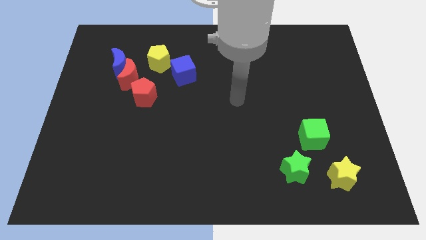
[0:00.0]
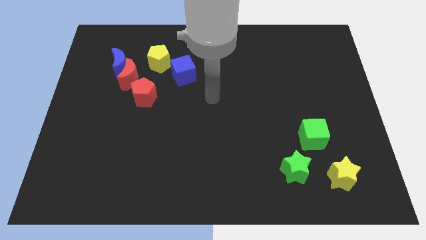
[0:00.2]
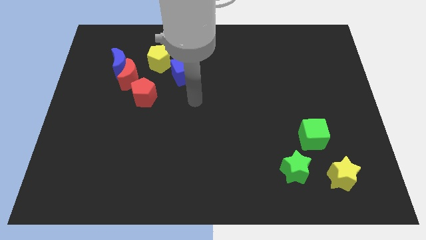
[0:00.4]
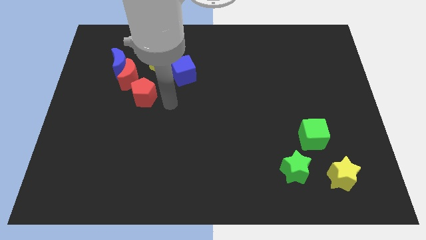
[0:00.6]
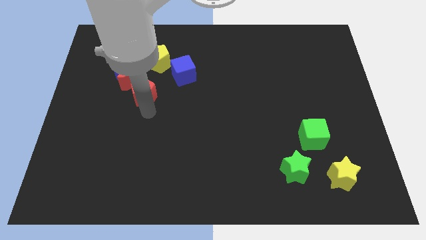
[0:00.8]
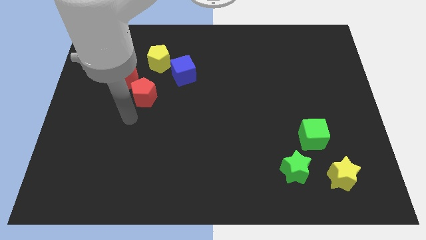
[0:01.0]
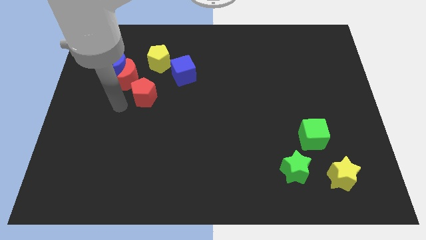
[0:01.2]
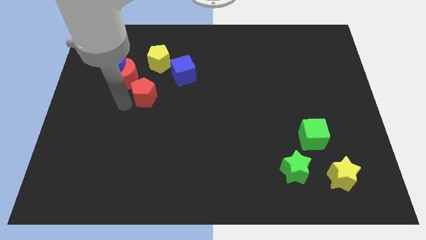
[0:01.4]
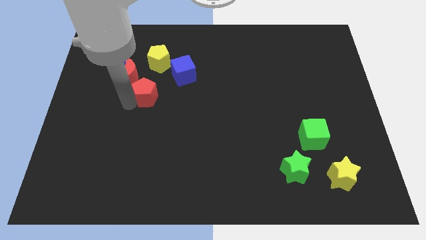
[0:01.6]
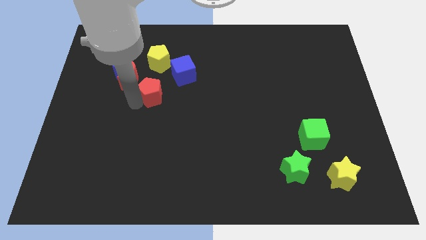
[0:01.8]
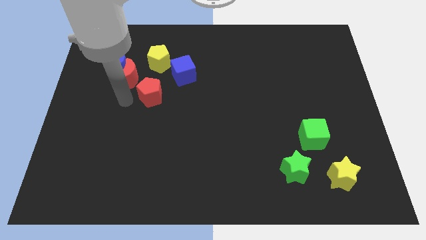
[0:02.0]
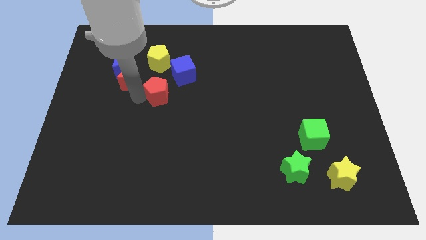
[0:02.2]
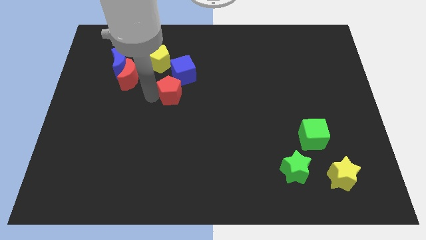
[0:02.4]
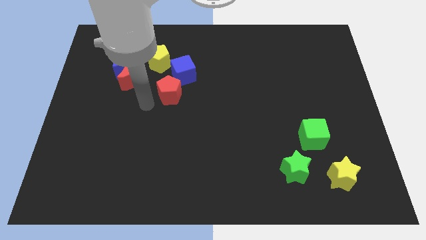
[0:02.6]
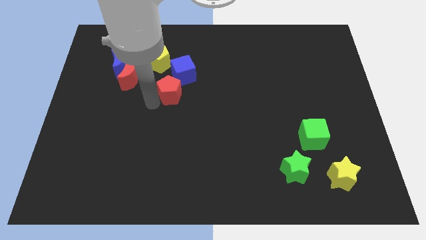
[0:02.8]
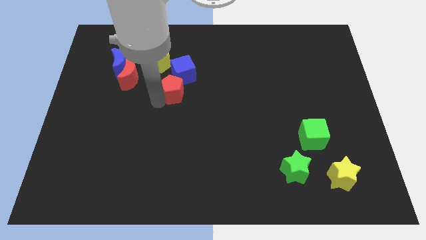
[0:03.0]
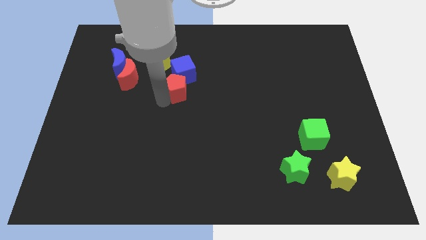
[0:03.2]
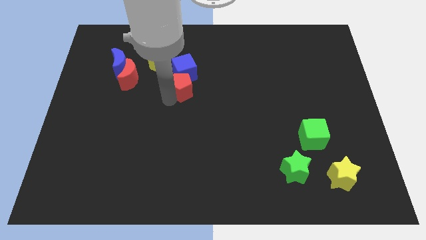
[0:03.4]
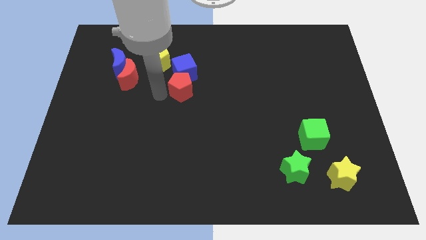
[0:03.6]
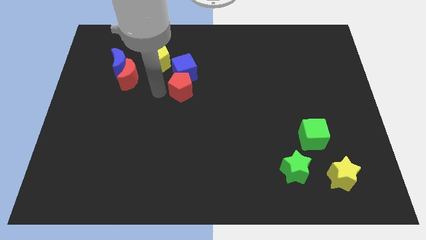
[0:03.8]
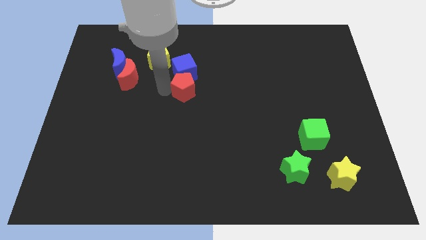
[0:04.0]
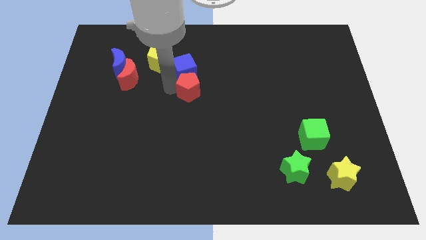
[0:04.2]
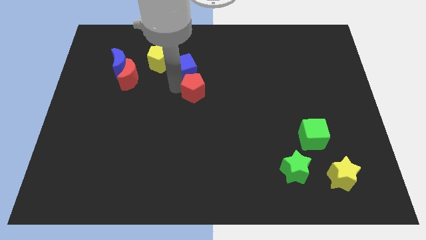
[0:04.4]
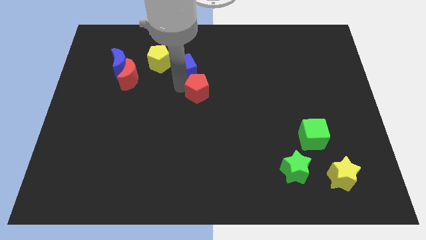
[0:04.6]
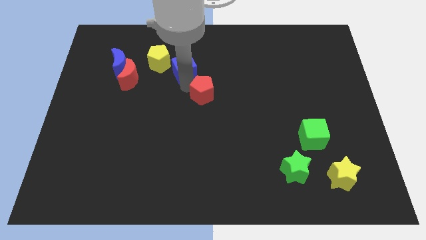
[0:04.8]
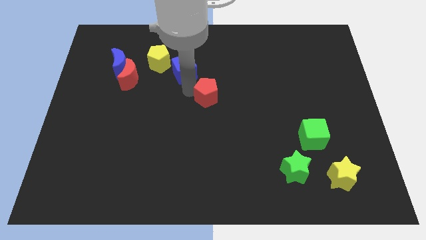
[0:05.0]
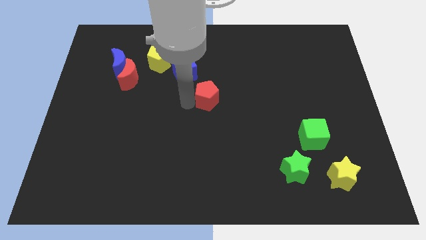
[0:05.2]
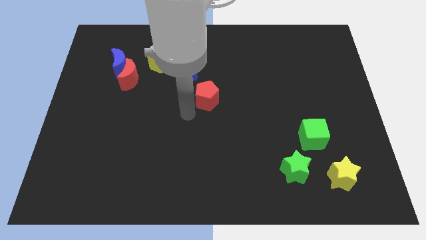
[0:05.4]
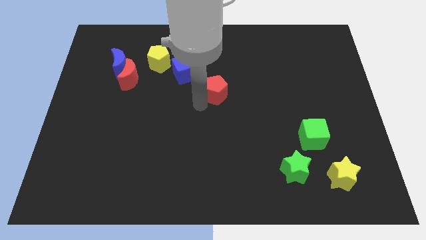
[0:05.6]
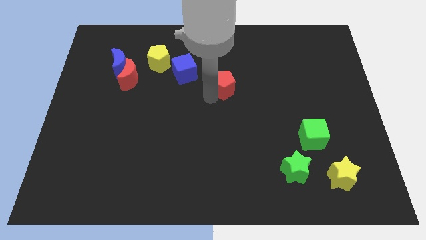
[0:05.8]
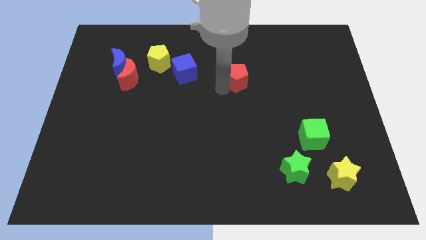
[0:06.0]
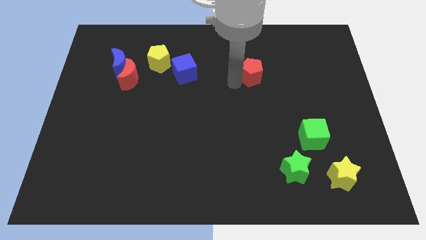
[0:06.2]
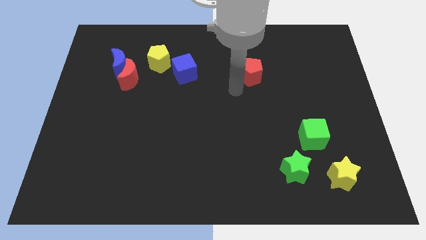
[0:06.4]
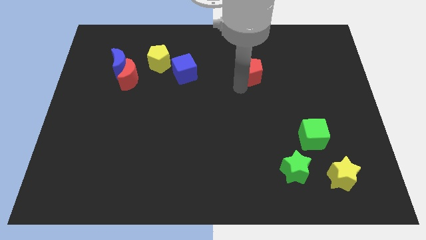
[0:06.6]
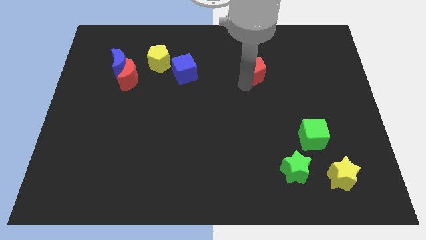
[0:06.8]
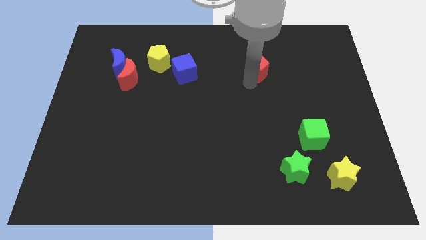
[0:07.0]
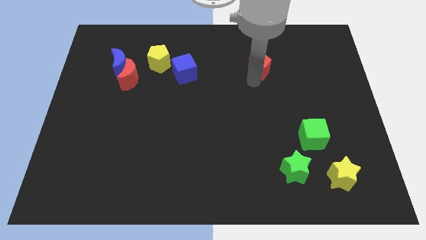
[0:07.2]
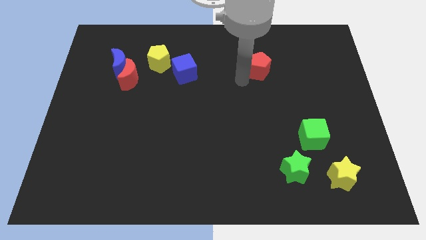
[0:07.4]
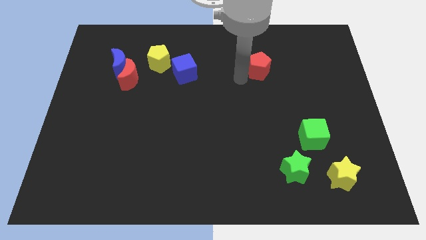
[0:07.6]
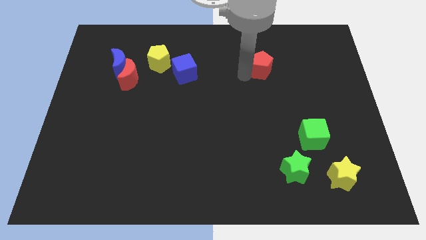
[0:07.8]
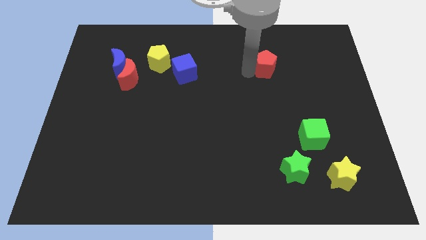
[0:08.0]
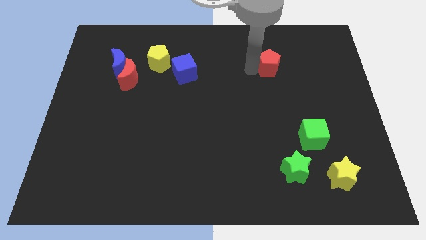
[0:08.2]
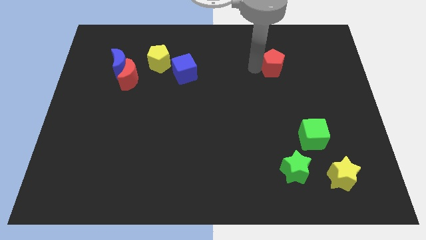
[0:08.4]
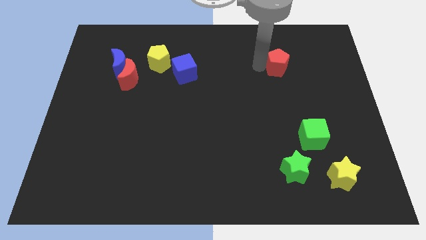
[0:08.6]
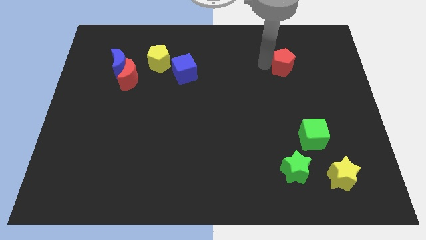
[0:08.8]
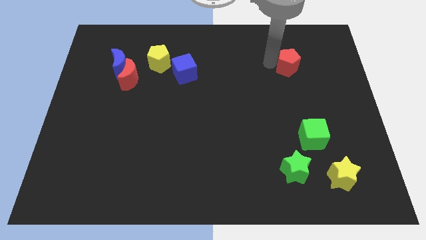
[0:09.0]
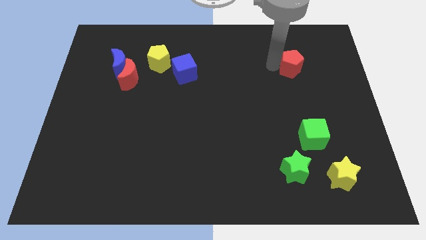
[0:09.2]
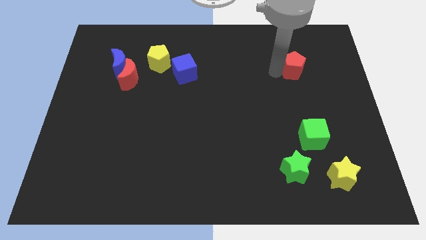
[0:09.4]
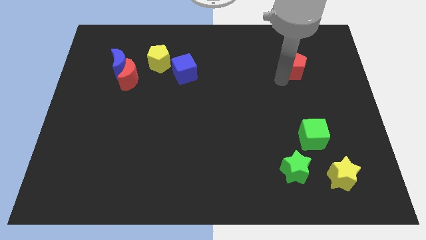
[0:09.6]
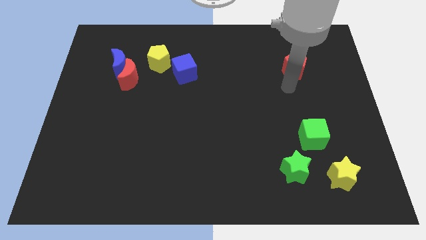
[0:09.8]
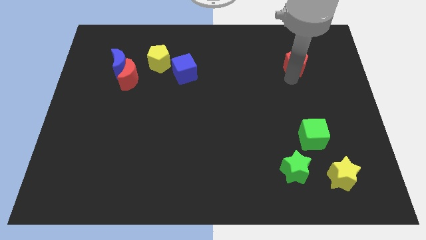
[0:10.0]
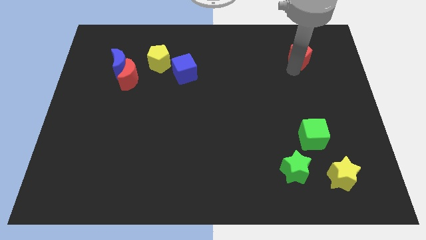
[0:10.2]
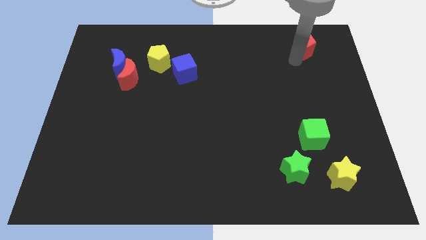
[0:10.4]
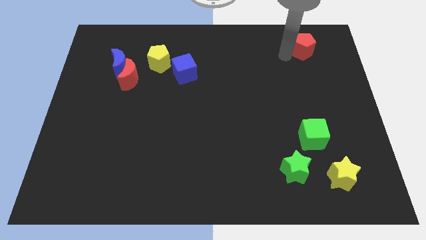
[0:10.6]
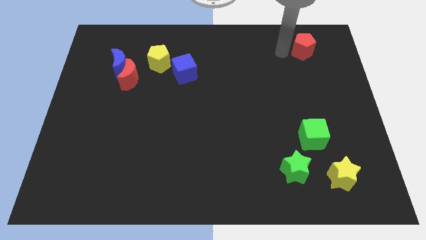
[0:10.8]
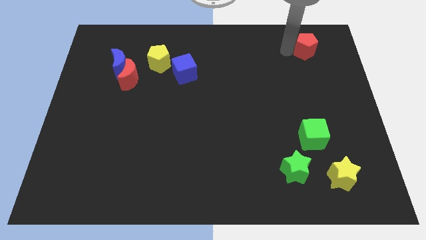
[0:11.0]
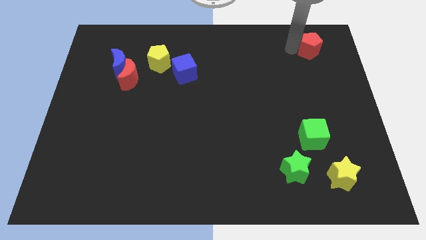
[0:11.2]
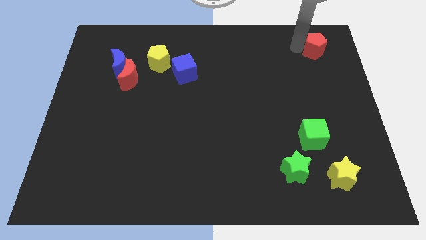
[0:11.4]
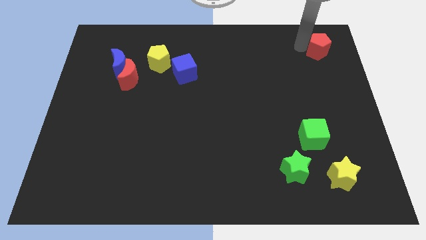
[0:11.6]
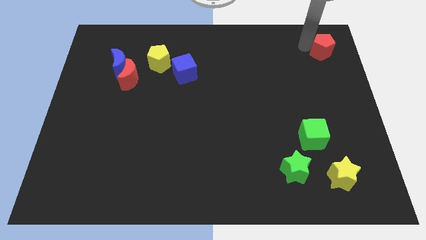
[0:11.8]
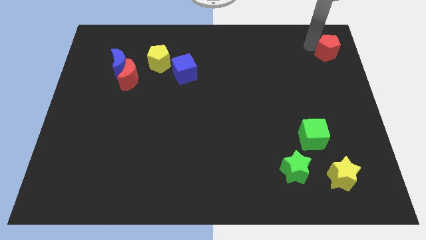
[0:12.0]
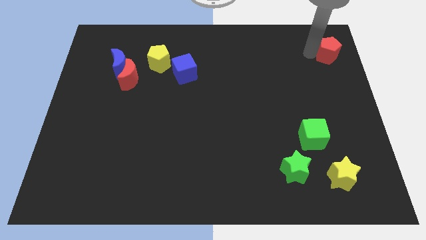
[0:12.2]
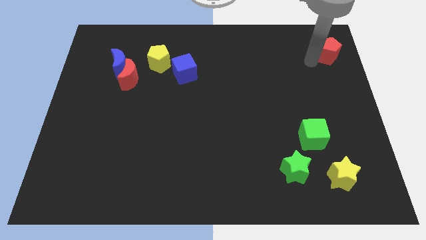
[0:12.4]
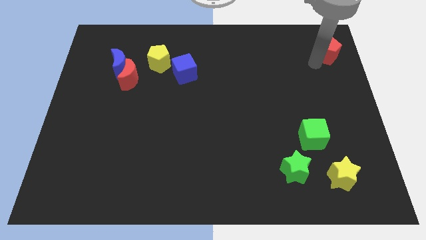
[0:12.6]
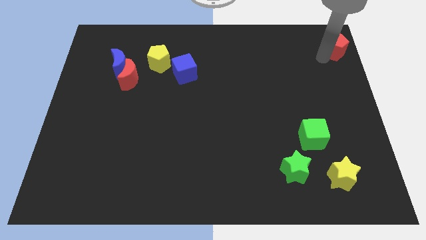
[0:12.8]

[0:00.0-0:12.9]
move the red pentagon to the top right of the board

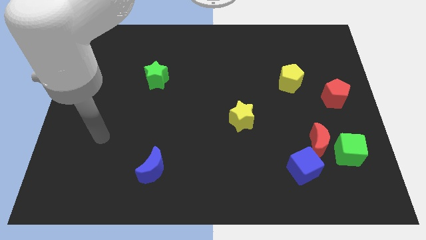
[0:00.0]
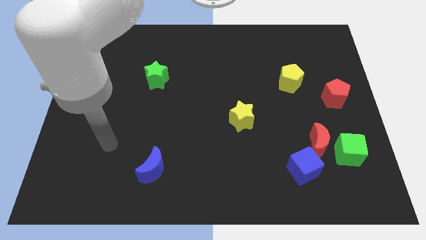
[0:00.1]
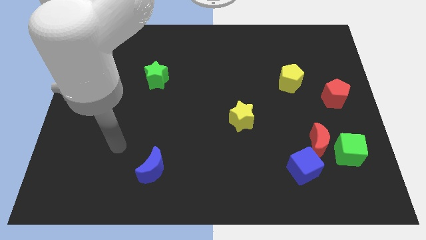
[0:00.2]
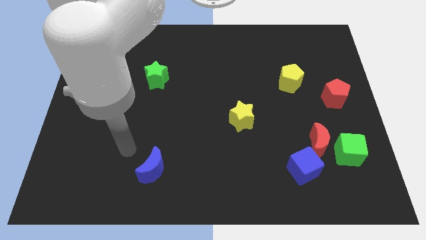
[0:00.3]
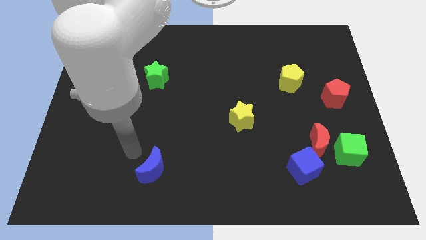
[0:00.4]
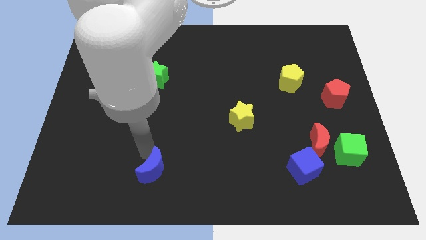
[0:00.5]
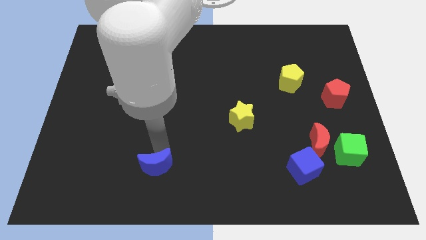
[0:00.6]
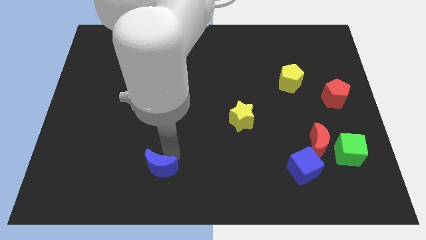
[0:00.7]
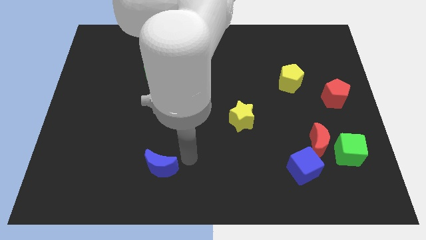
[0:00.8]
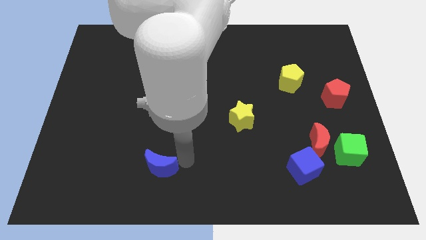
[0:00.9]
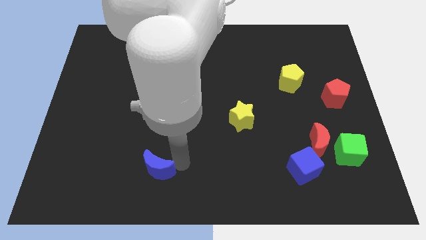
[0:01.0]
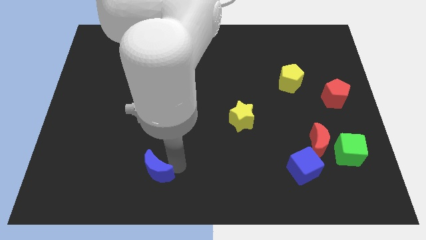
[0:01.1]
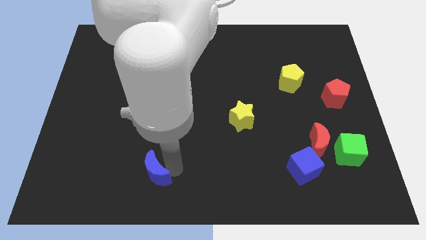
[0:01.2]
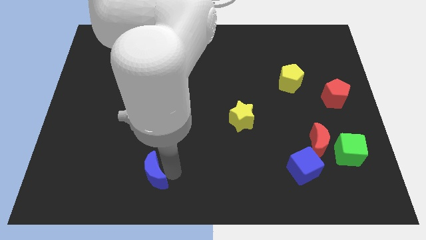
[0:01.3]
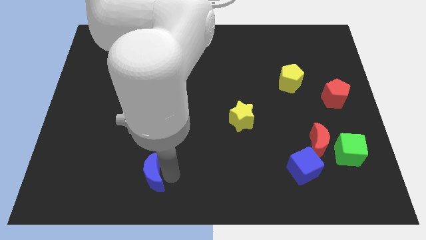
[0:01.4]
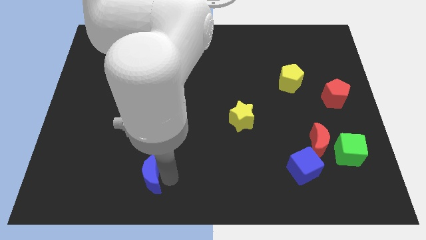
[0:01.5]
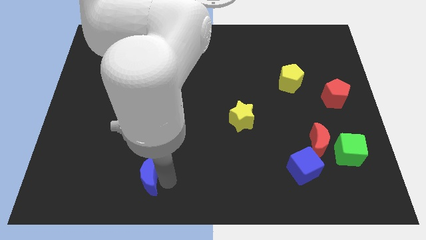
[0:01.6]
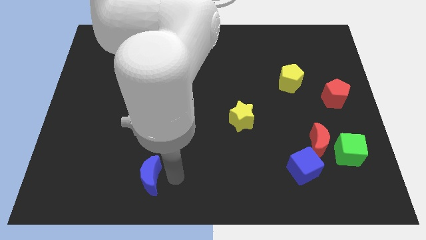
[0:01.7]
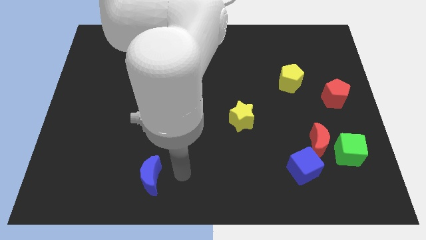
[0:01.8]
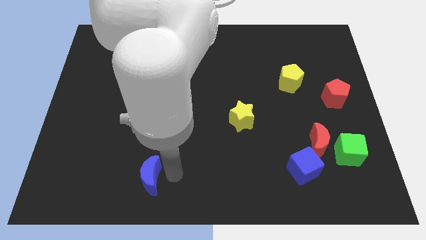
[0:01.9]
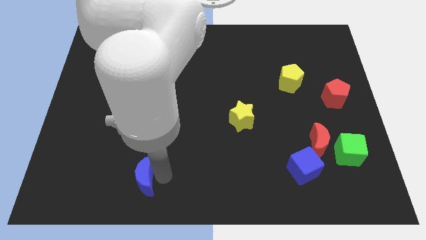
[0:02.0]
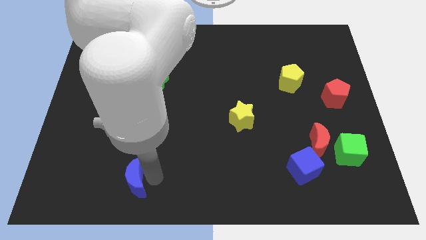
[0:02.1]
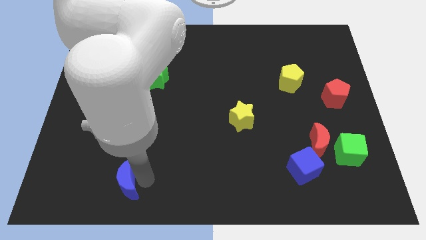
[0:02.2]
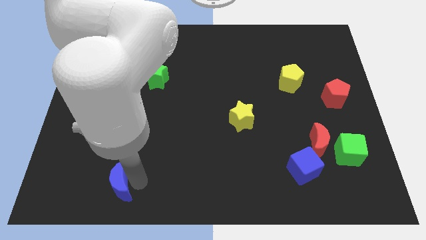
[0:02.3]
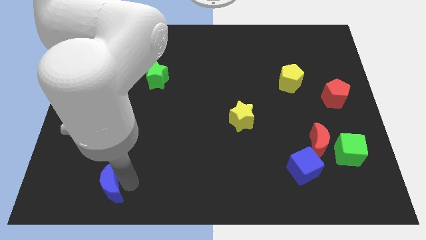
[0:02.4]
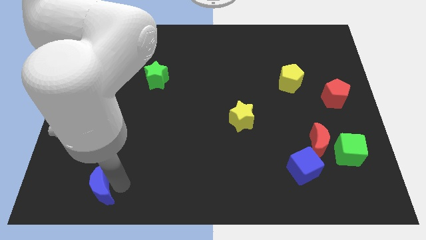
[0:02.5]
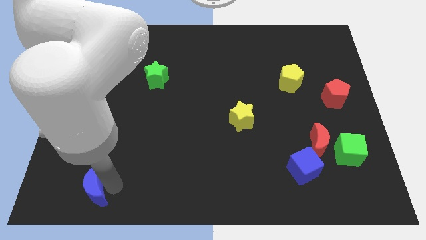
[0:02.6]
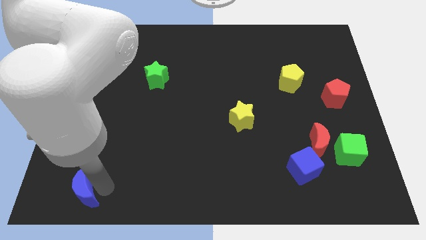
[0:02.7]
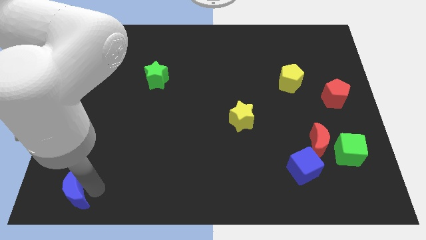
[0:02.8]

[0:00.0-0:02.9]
push the blue moon to the lower left corner
